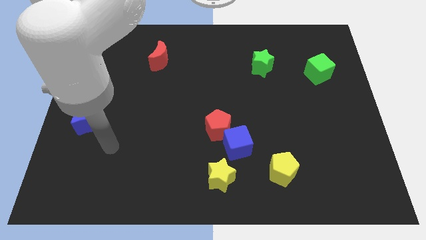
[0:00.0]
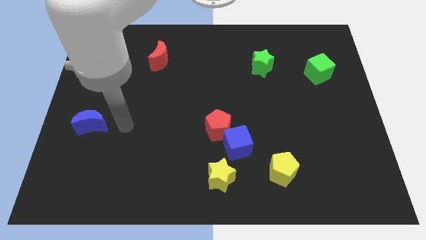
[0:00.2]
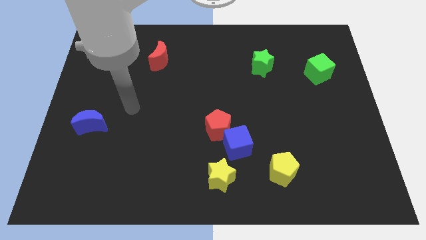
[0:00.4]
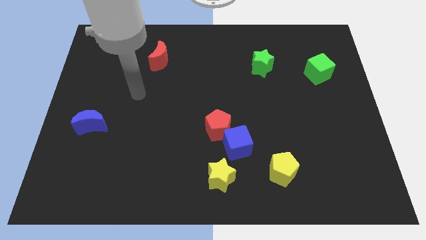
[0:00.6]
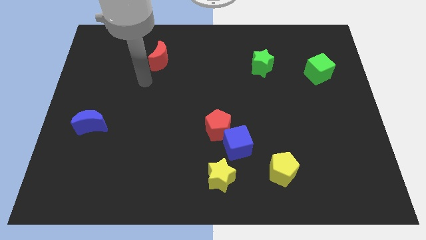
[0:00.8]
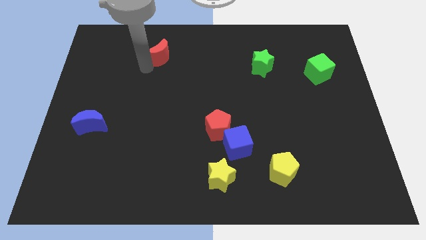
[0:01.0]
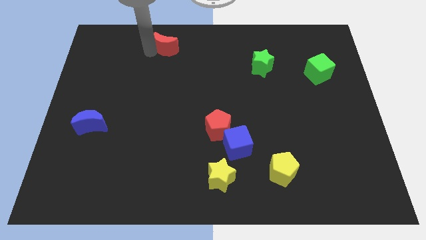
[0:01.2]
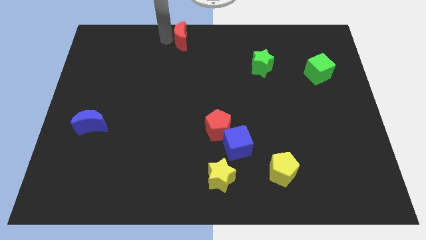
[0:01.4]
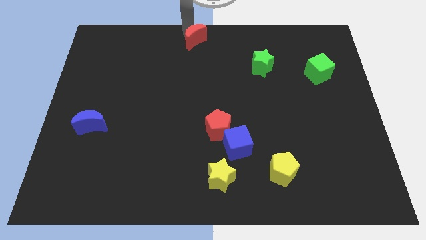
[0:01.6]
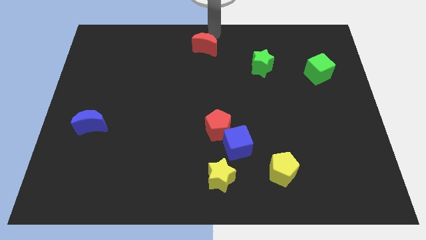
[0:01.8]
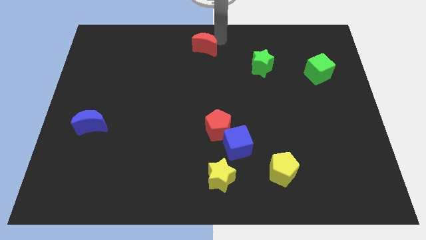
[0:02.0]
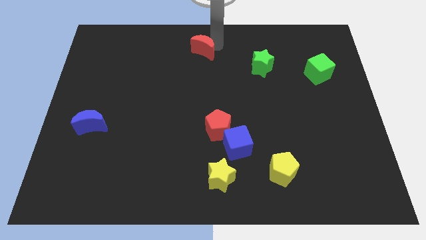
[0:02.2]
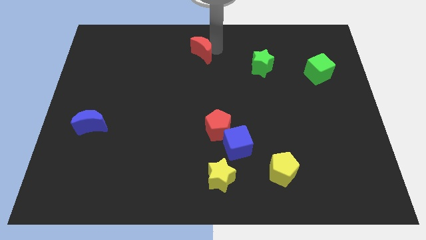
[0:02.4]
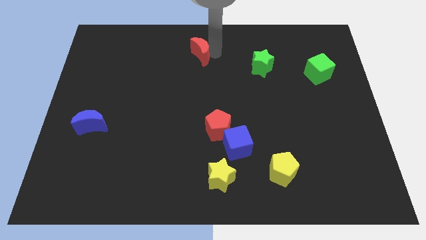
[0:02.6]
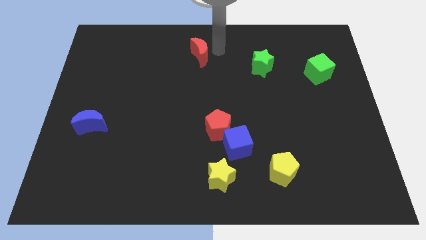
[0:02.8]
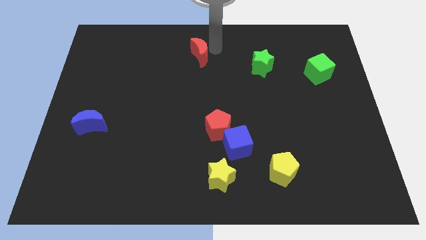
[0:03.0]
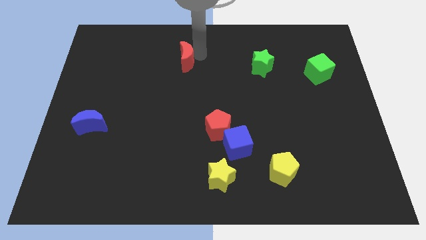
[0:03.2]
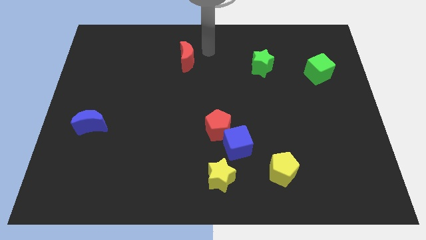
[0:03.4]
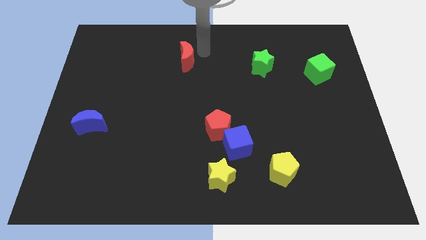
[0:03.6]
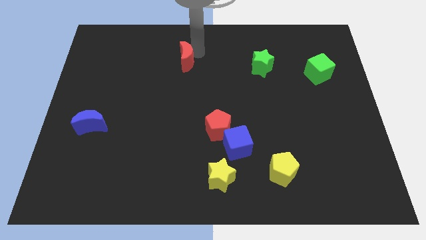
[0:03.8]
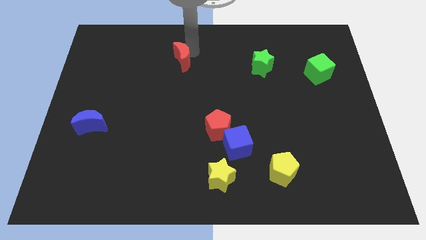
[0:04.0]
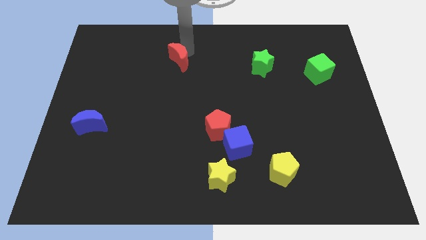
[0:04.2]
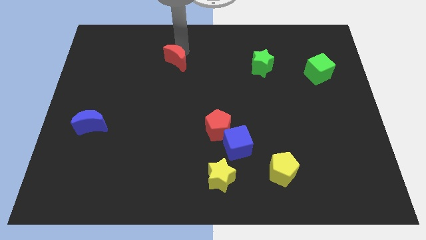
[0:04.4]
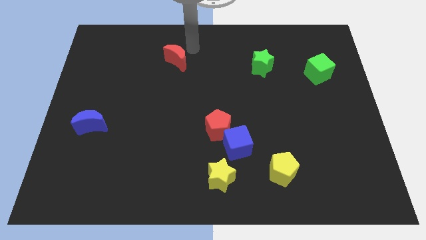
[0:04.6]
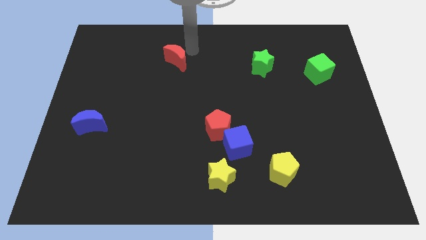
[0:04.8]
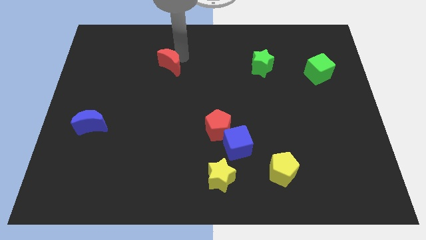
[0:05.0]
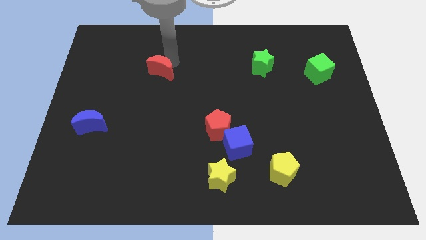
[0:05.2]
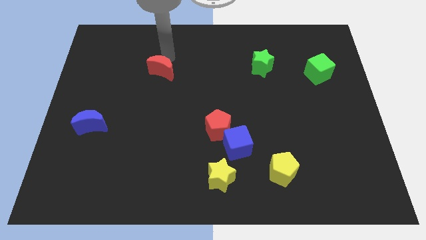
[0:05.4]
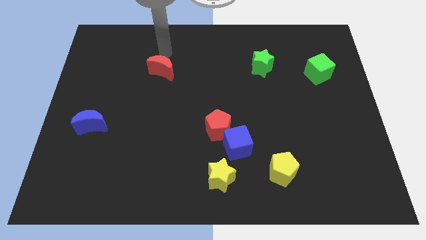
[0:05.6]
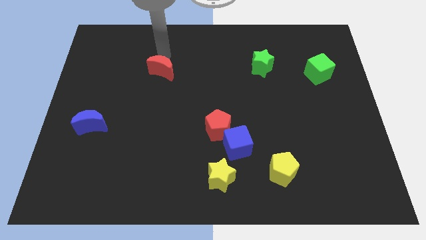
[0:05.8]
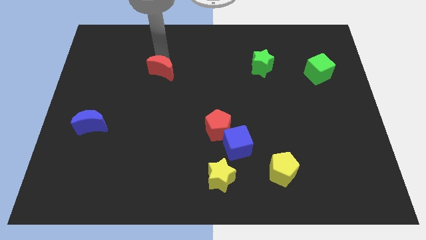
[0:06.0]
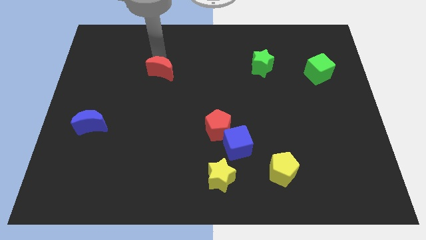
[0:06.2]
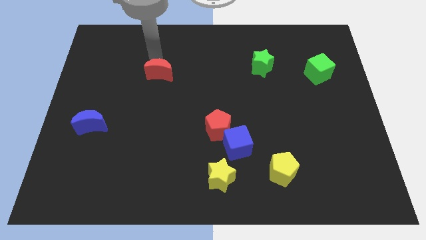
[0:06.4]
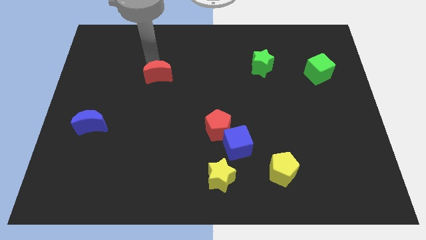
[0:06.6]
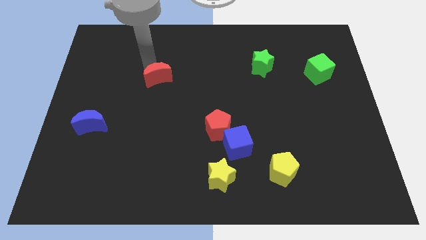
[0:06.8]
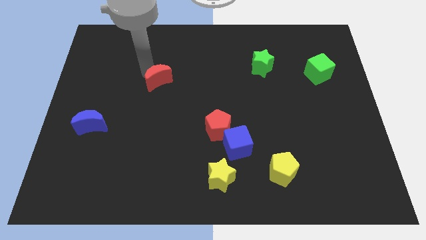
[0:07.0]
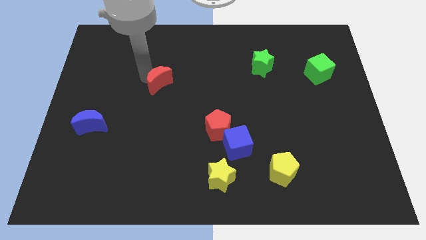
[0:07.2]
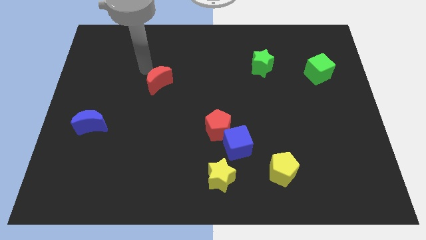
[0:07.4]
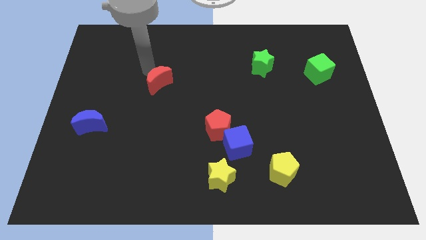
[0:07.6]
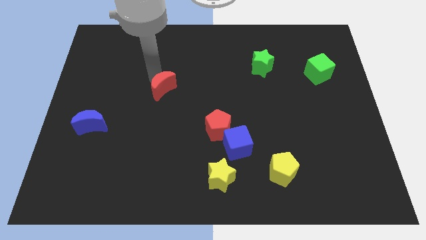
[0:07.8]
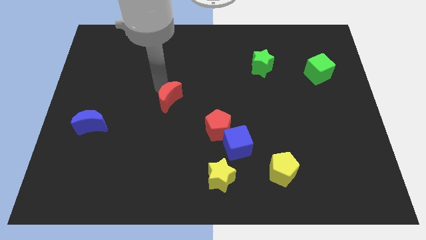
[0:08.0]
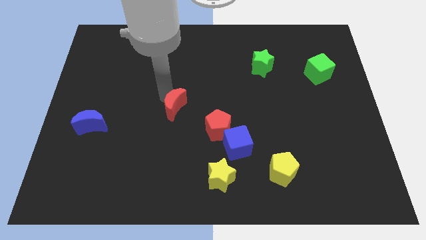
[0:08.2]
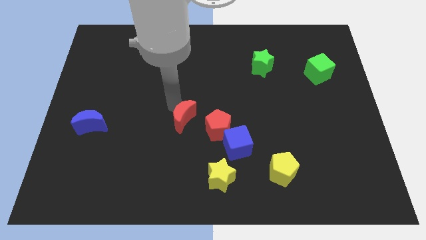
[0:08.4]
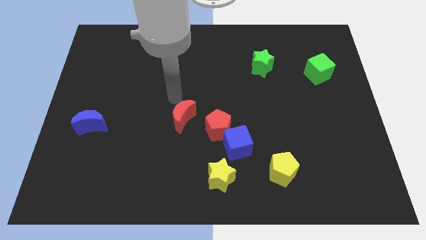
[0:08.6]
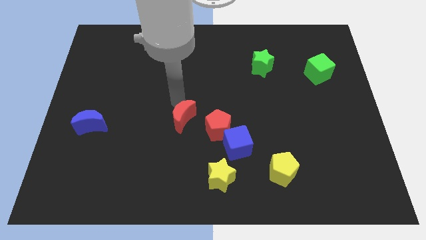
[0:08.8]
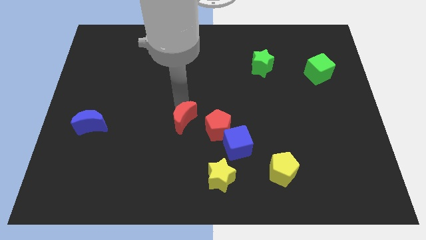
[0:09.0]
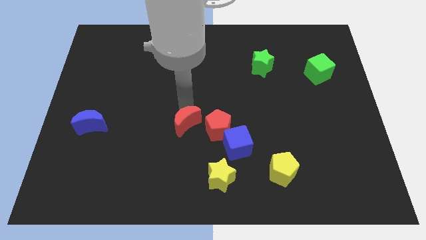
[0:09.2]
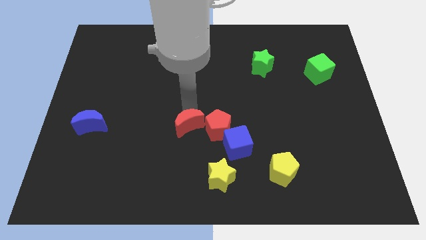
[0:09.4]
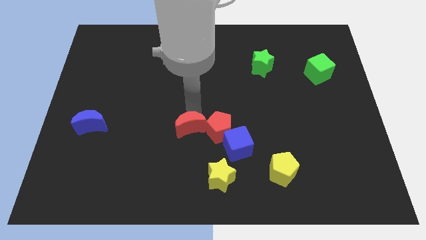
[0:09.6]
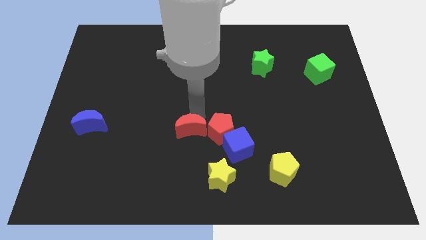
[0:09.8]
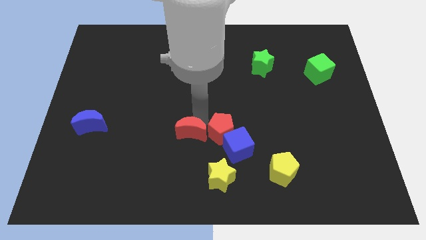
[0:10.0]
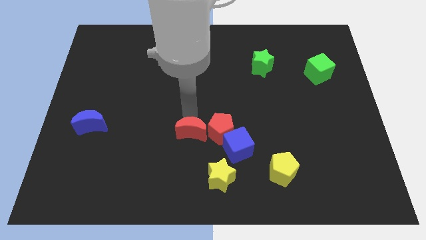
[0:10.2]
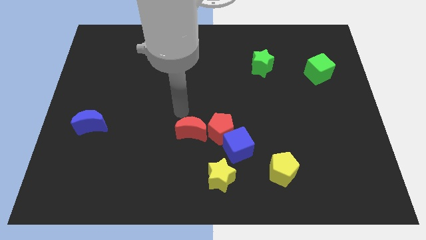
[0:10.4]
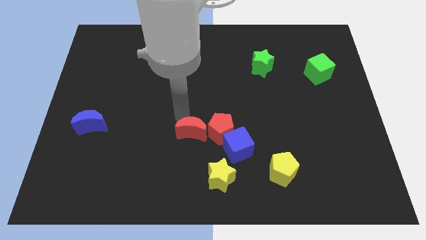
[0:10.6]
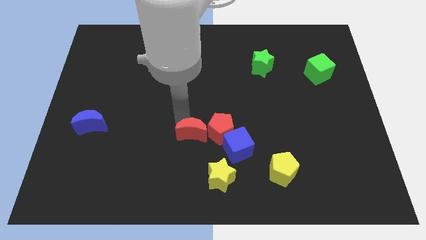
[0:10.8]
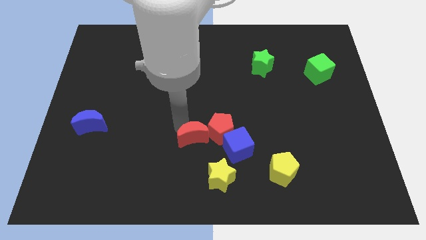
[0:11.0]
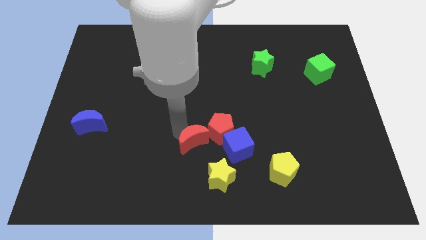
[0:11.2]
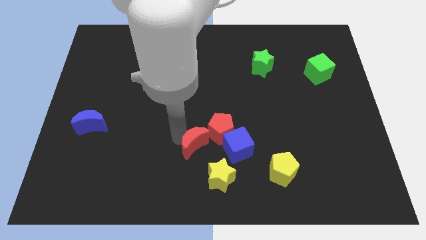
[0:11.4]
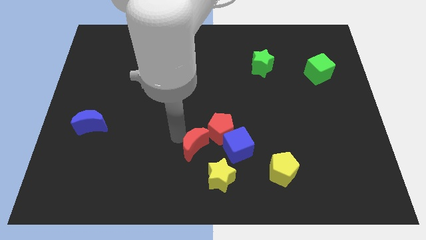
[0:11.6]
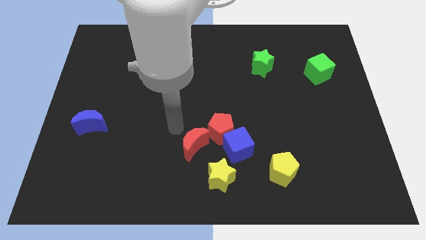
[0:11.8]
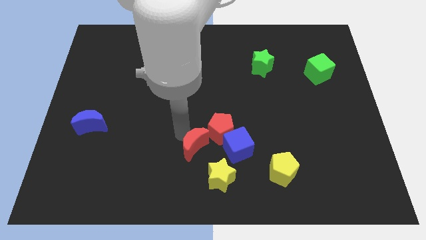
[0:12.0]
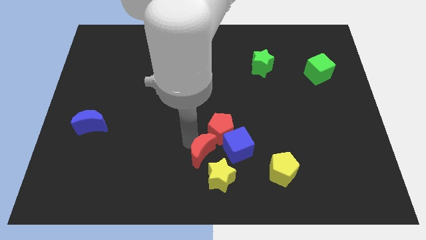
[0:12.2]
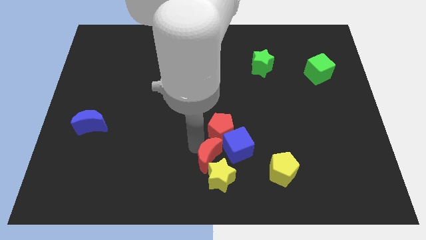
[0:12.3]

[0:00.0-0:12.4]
push the red moon next to the yellow star

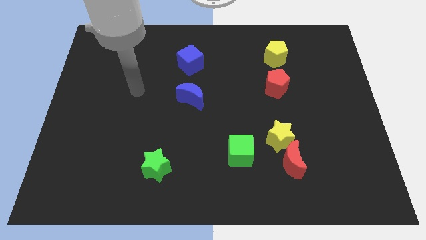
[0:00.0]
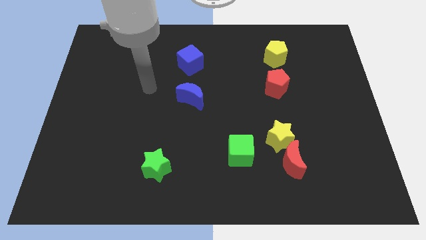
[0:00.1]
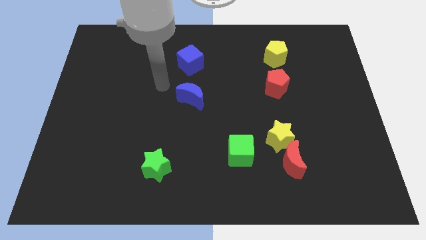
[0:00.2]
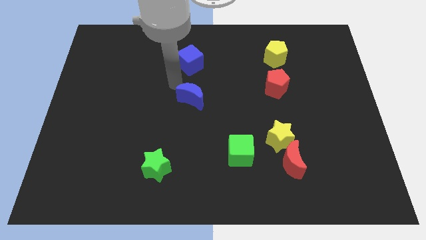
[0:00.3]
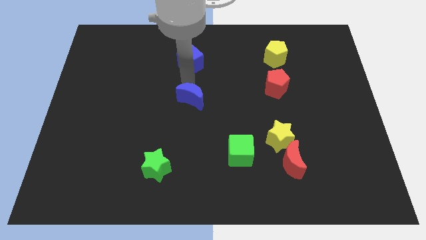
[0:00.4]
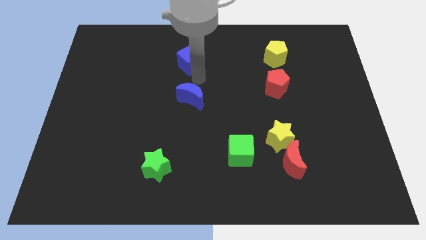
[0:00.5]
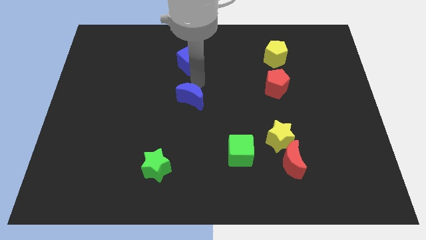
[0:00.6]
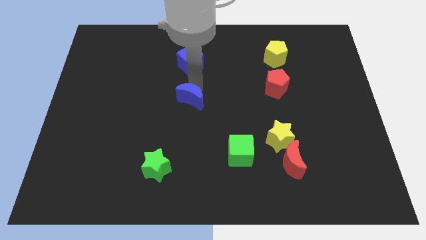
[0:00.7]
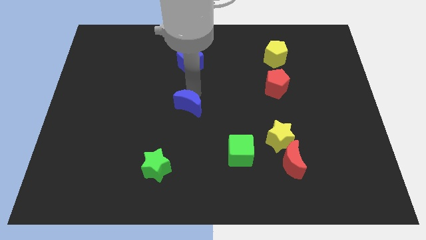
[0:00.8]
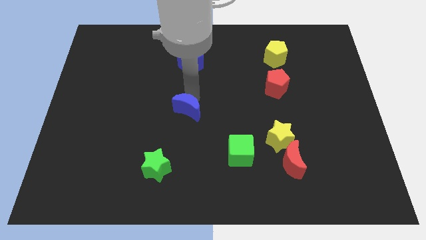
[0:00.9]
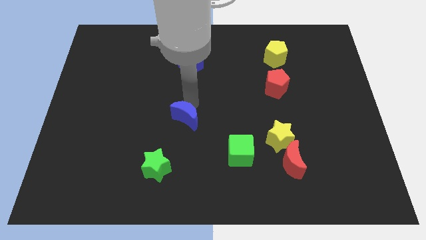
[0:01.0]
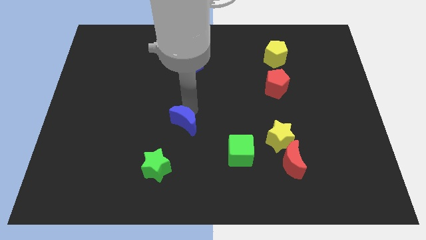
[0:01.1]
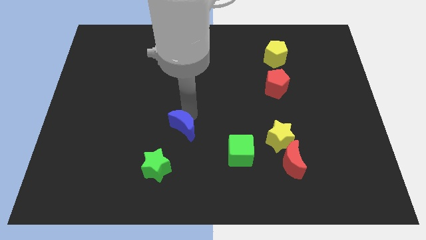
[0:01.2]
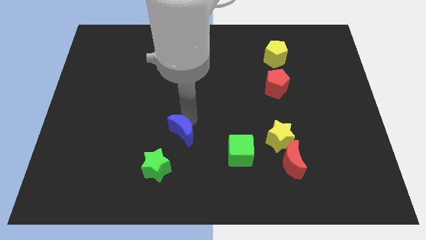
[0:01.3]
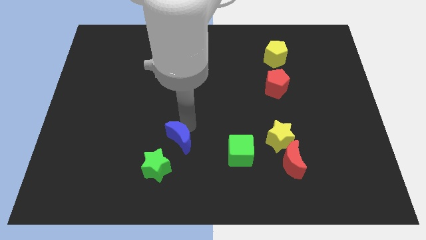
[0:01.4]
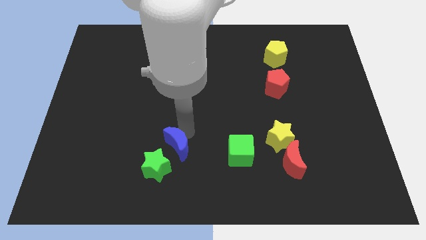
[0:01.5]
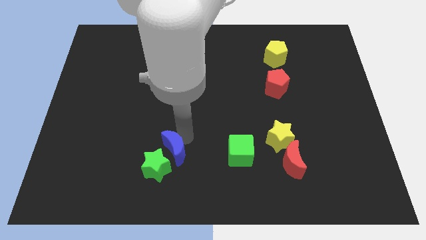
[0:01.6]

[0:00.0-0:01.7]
slide the blue moon towards the green star
